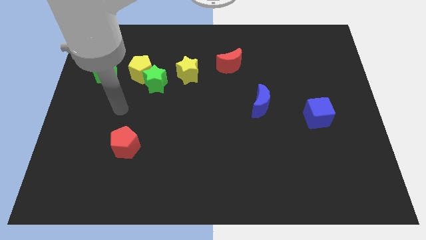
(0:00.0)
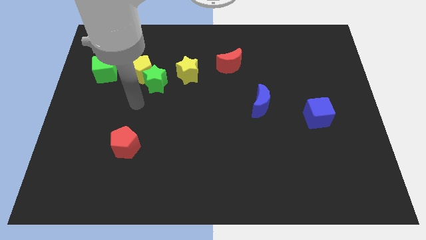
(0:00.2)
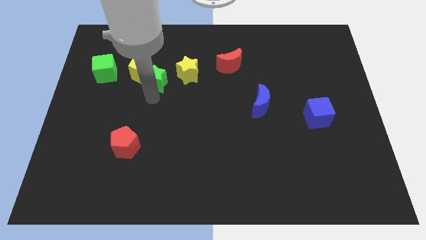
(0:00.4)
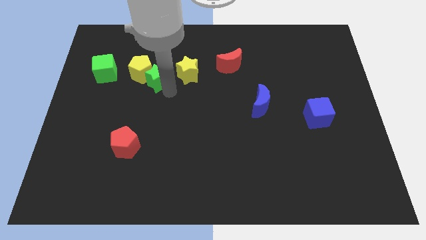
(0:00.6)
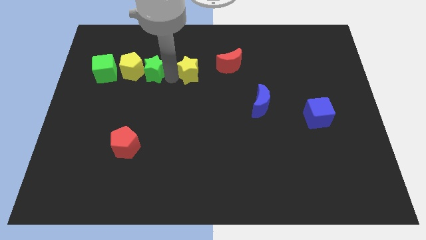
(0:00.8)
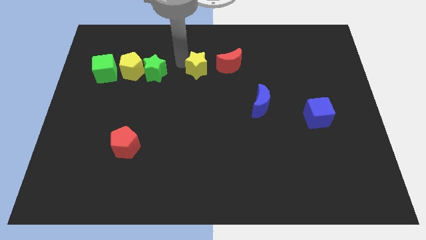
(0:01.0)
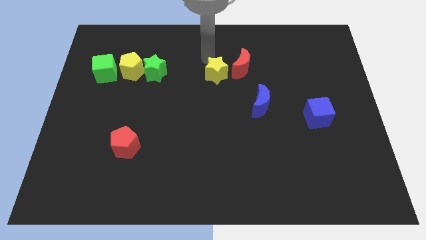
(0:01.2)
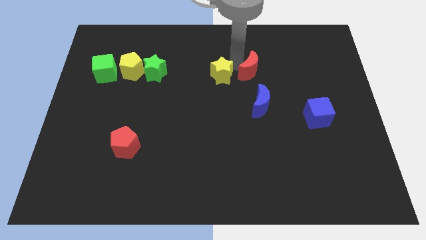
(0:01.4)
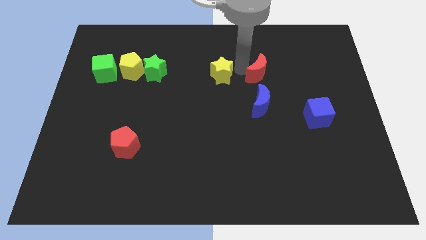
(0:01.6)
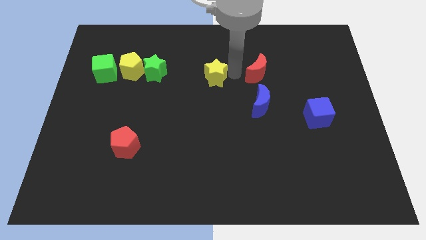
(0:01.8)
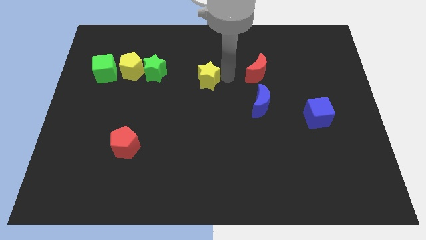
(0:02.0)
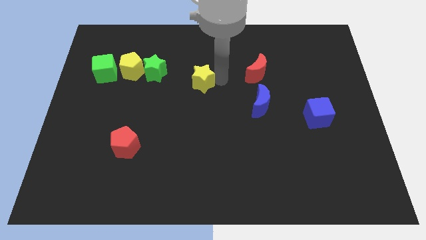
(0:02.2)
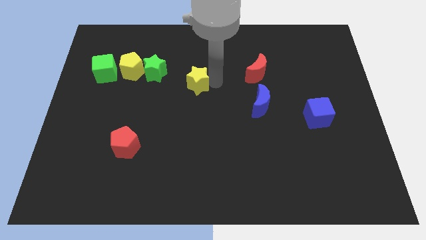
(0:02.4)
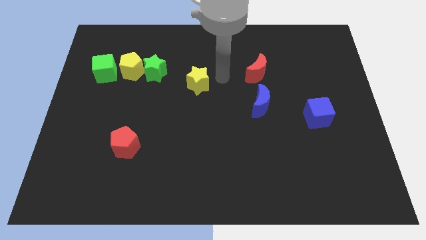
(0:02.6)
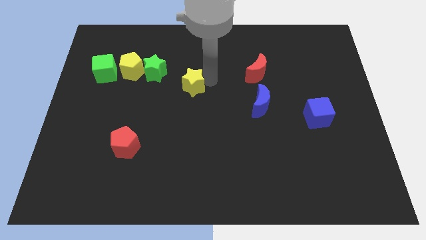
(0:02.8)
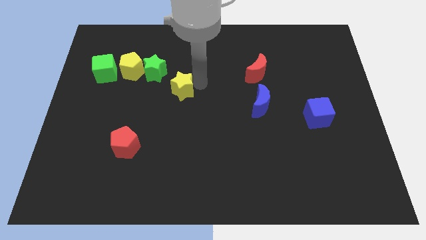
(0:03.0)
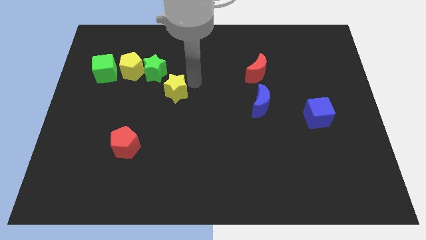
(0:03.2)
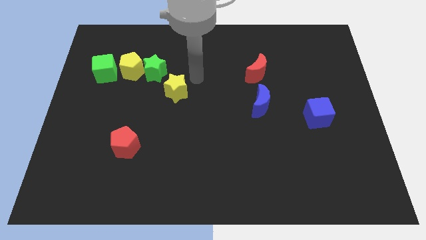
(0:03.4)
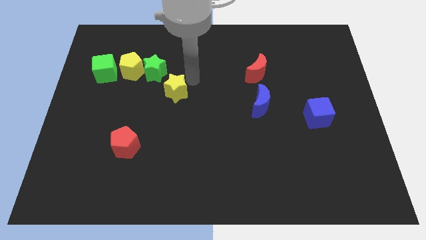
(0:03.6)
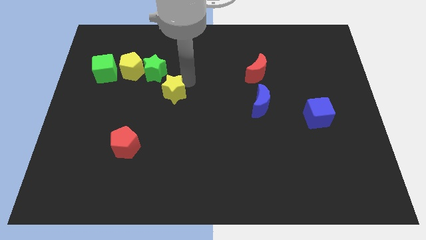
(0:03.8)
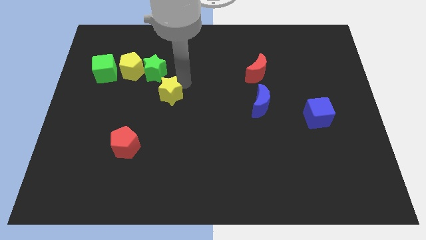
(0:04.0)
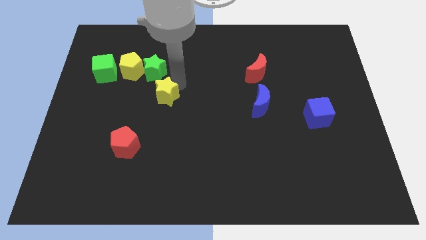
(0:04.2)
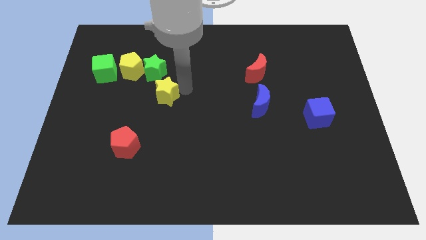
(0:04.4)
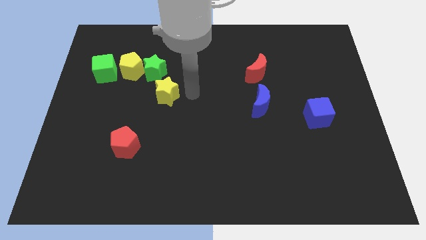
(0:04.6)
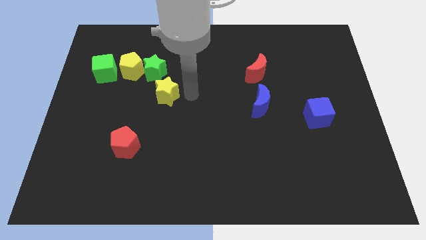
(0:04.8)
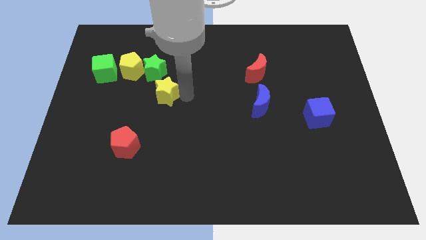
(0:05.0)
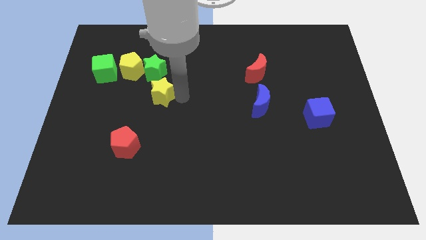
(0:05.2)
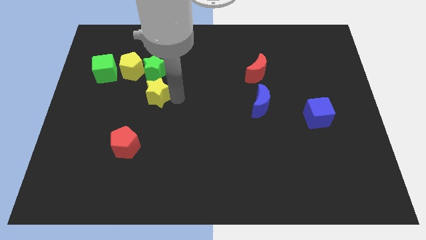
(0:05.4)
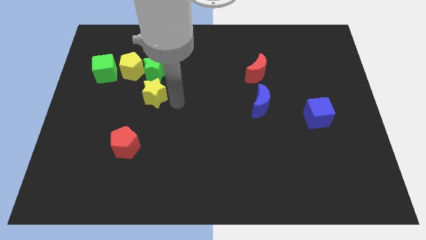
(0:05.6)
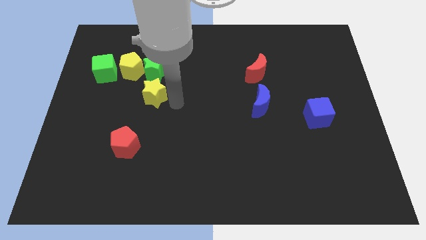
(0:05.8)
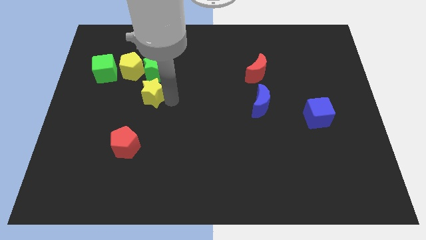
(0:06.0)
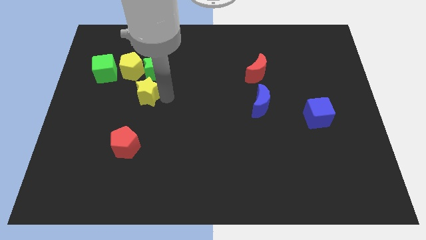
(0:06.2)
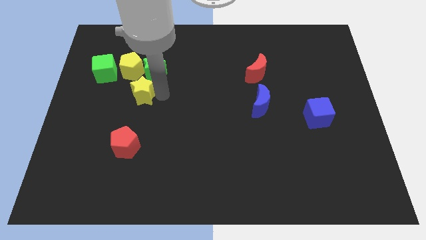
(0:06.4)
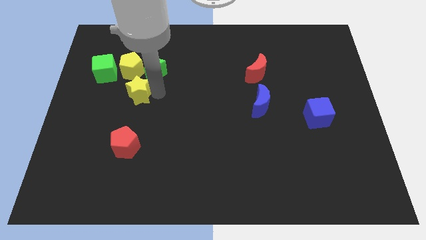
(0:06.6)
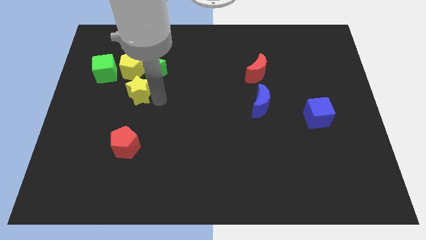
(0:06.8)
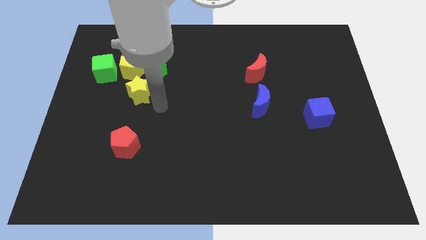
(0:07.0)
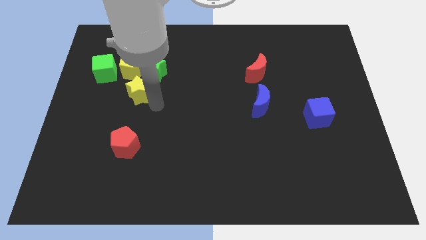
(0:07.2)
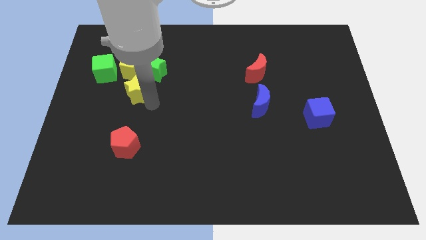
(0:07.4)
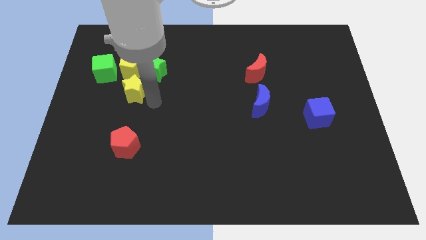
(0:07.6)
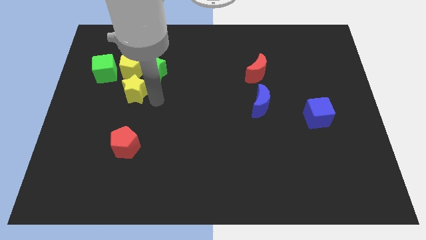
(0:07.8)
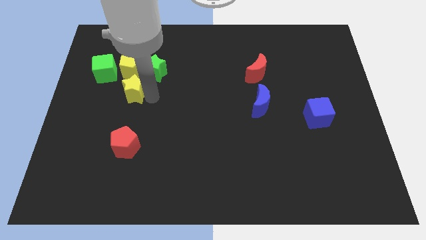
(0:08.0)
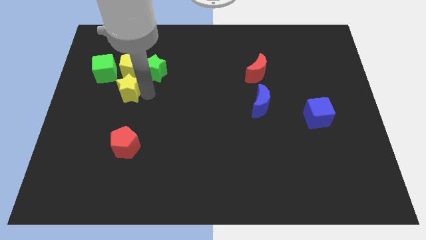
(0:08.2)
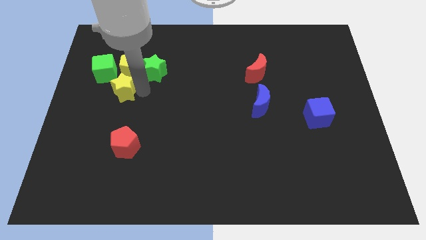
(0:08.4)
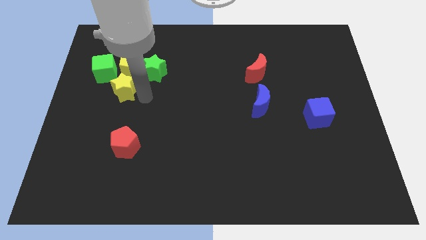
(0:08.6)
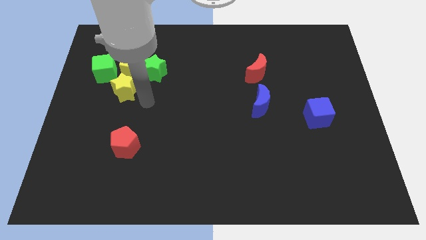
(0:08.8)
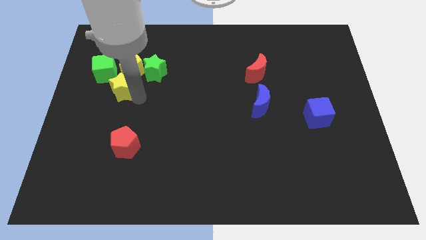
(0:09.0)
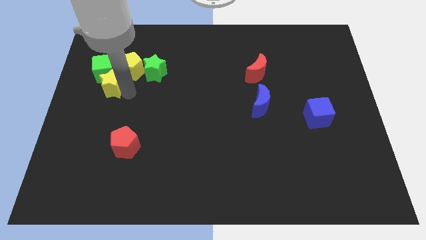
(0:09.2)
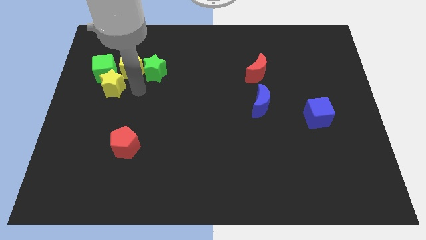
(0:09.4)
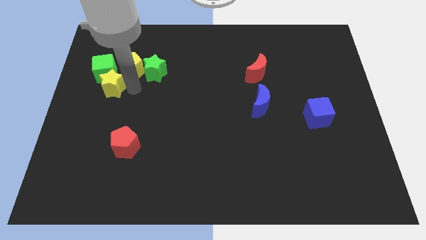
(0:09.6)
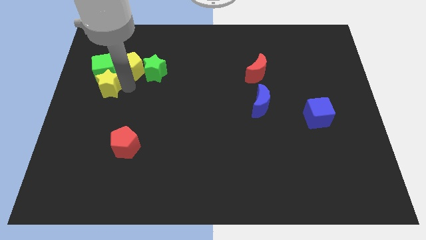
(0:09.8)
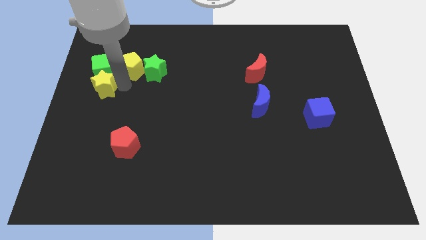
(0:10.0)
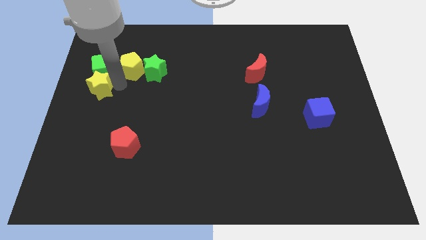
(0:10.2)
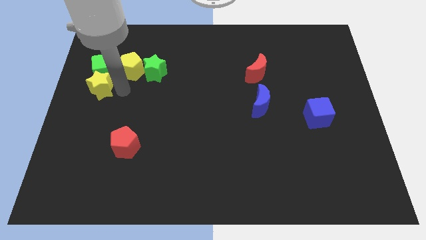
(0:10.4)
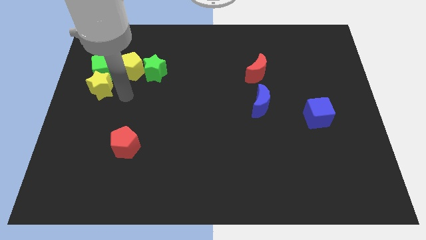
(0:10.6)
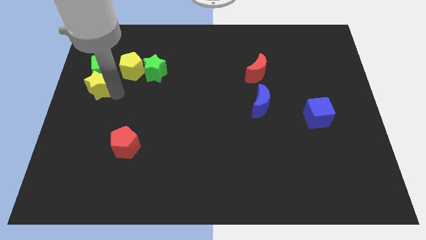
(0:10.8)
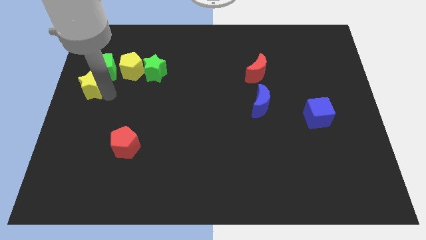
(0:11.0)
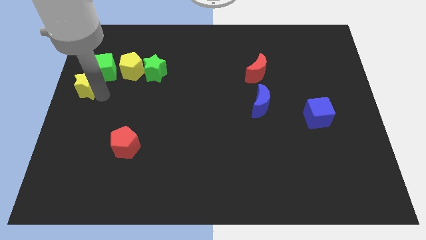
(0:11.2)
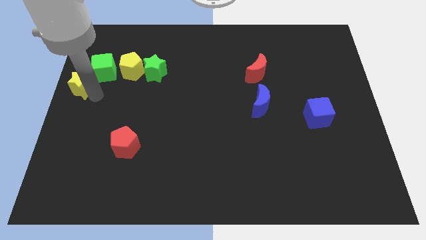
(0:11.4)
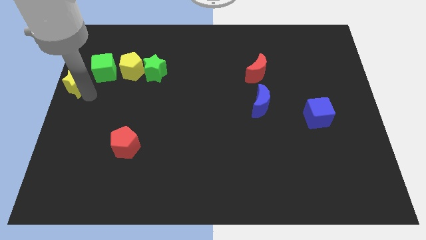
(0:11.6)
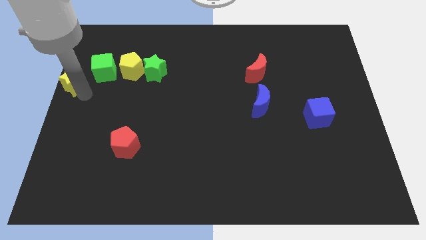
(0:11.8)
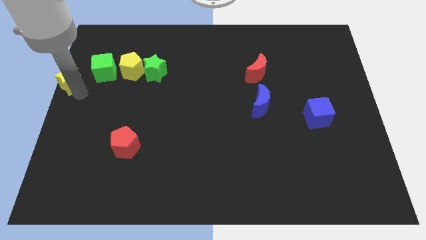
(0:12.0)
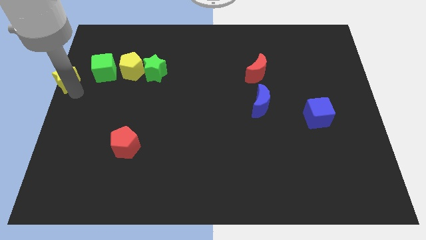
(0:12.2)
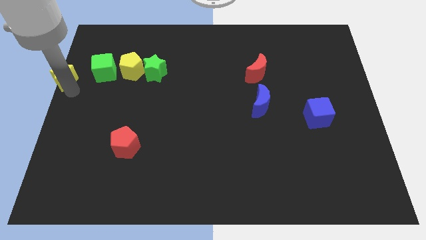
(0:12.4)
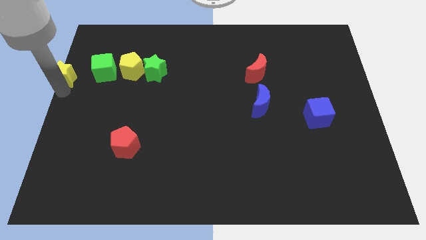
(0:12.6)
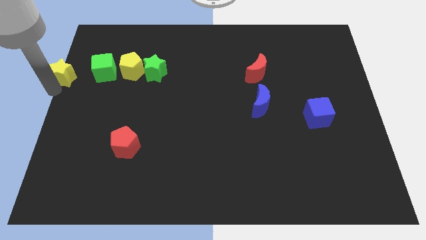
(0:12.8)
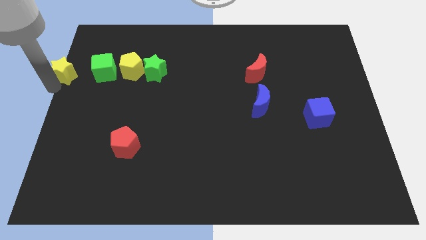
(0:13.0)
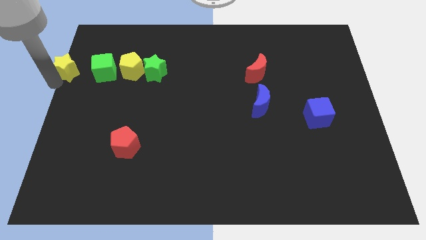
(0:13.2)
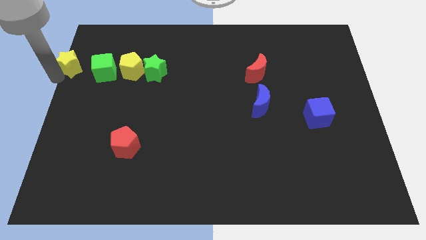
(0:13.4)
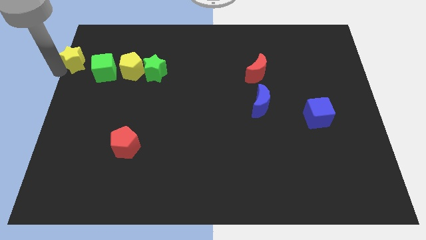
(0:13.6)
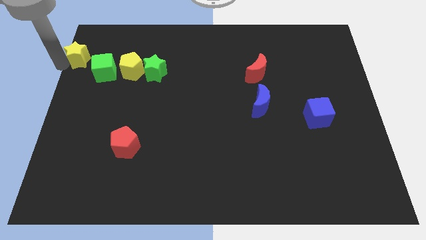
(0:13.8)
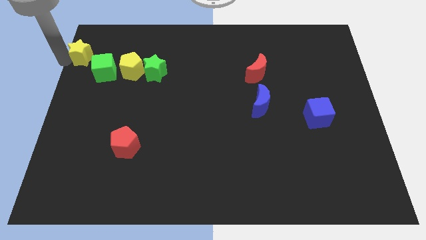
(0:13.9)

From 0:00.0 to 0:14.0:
move the yellow star to the top left of the board
